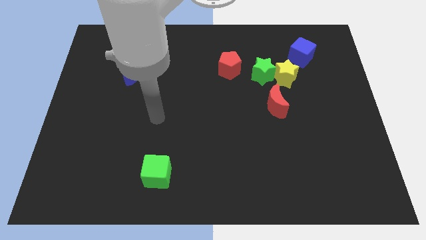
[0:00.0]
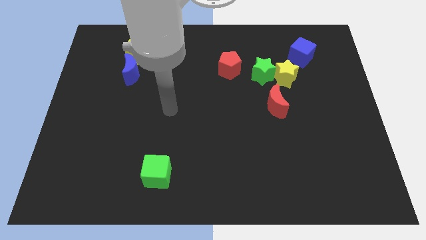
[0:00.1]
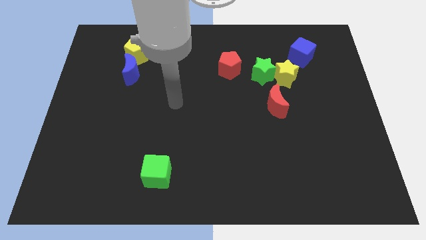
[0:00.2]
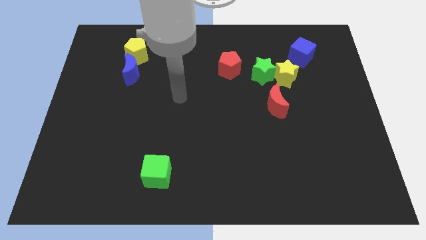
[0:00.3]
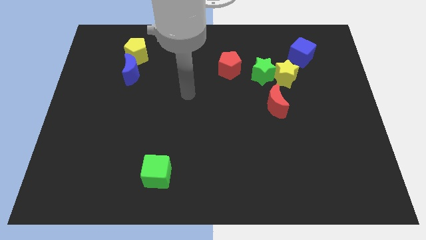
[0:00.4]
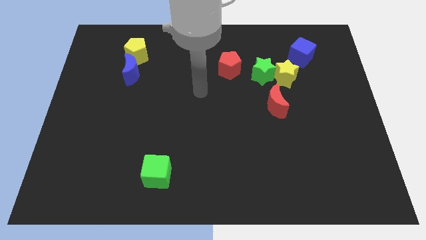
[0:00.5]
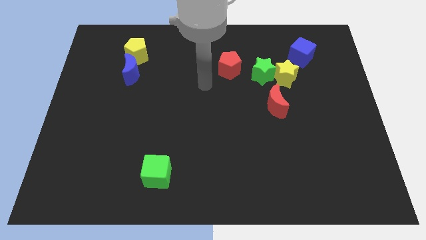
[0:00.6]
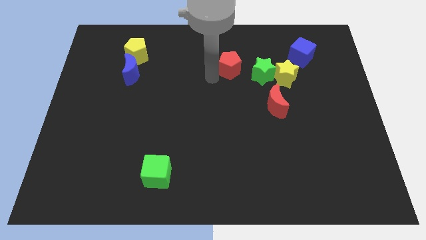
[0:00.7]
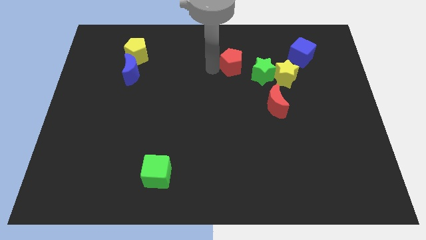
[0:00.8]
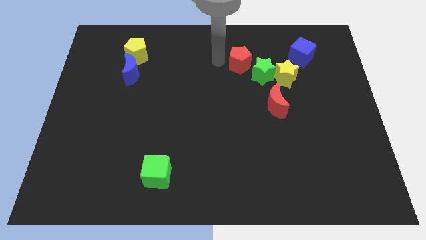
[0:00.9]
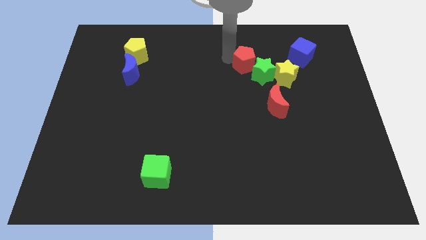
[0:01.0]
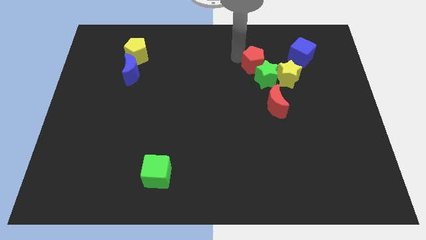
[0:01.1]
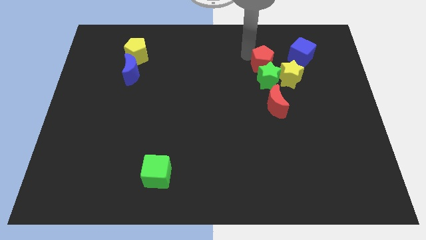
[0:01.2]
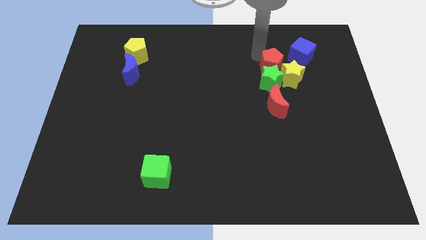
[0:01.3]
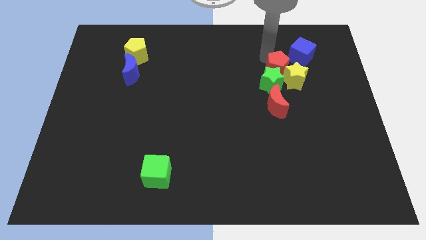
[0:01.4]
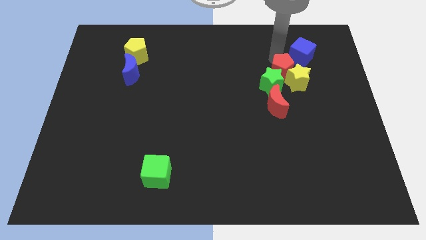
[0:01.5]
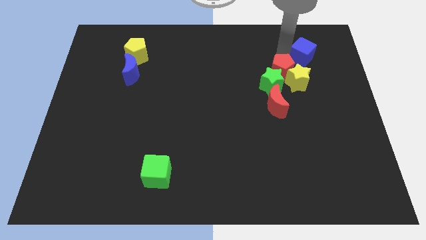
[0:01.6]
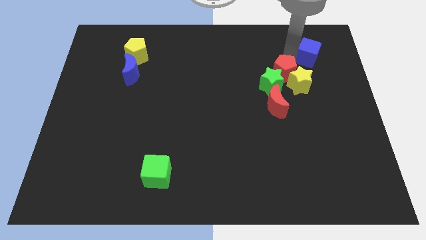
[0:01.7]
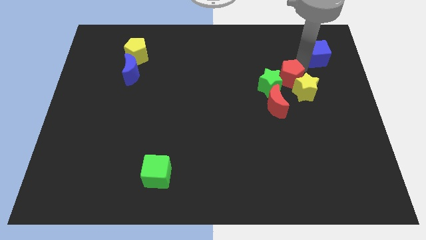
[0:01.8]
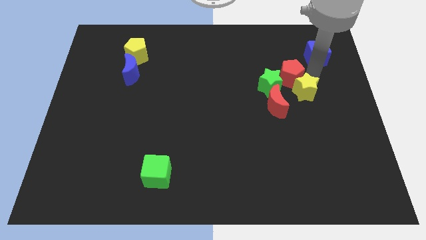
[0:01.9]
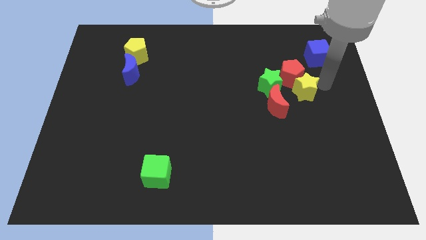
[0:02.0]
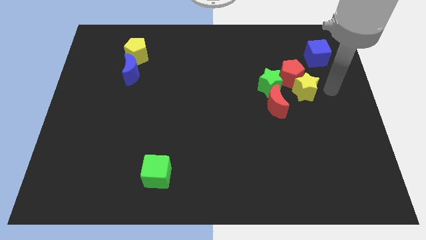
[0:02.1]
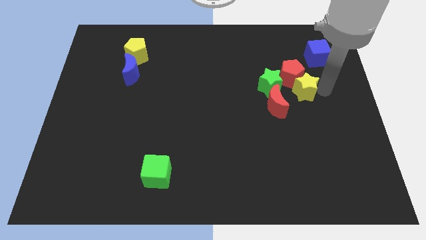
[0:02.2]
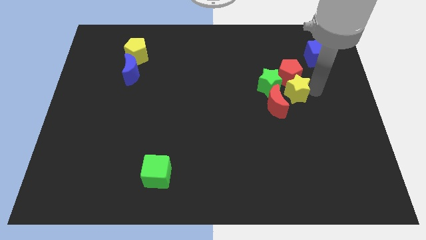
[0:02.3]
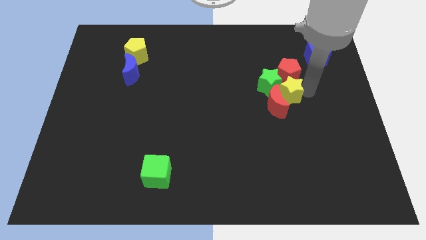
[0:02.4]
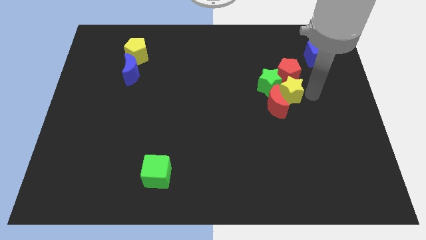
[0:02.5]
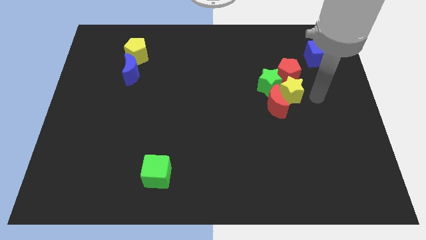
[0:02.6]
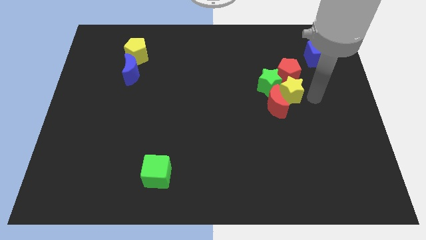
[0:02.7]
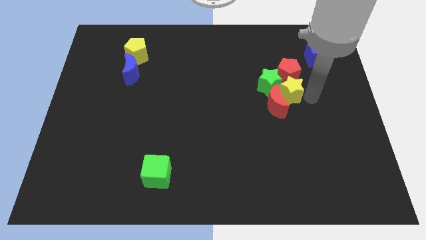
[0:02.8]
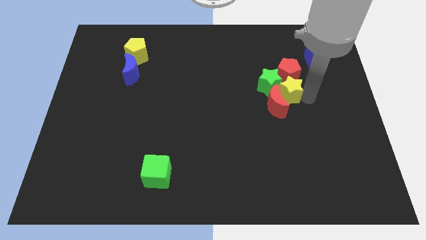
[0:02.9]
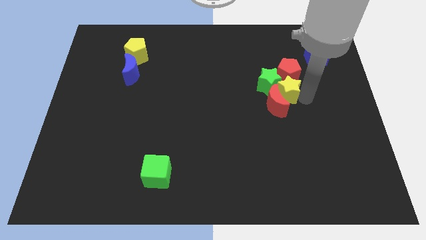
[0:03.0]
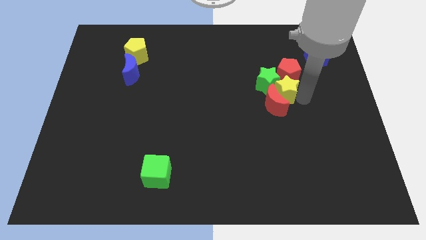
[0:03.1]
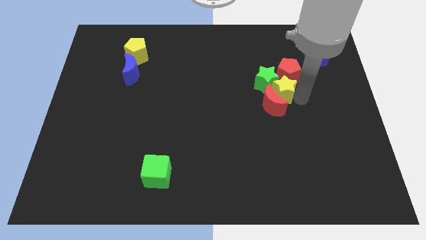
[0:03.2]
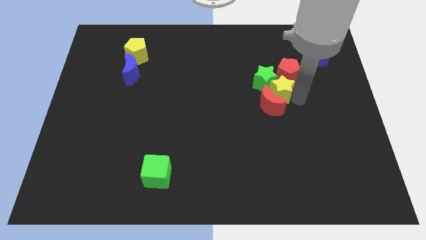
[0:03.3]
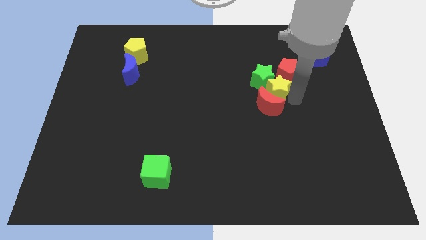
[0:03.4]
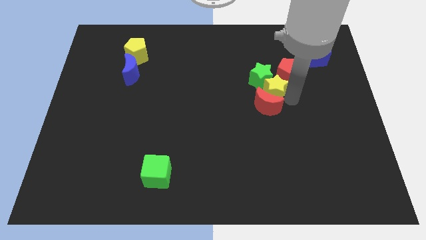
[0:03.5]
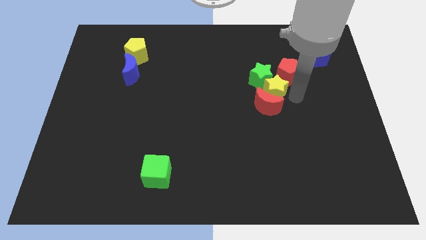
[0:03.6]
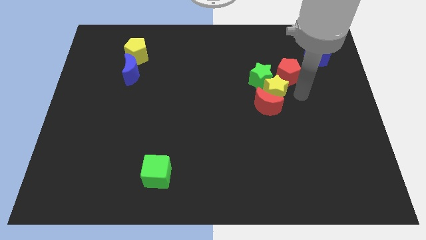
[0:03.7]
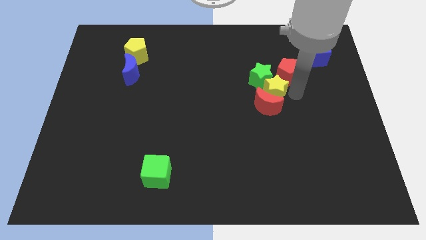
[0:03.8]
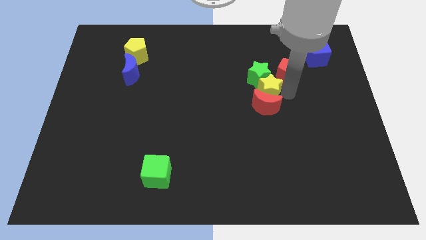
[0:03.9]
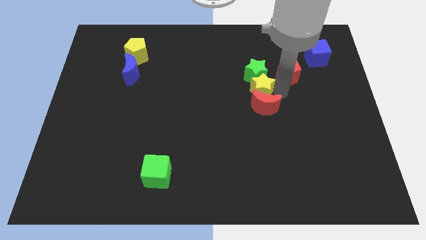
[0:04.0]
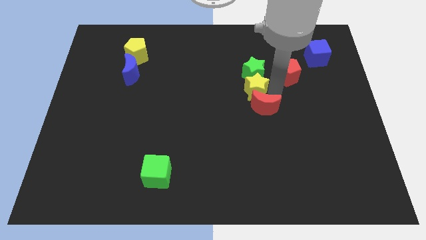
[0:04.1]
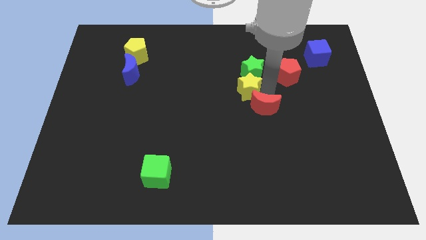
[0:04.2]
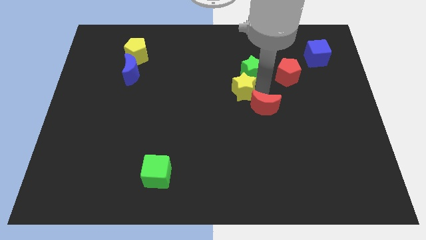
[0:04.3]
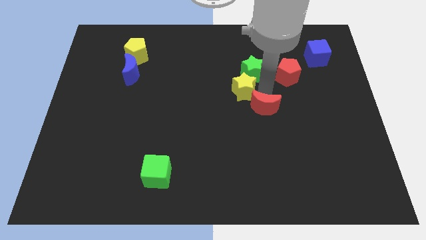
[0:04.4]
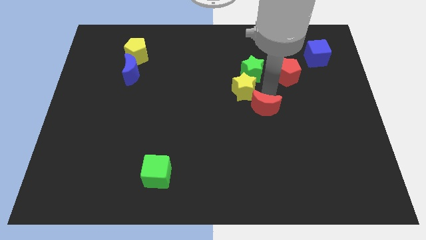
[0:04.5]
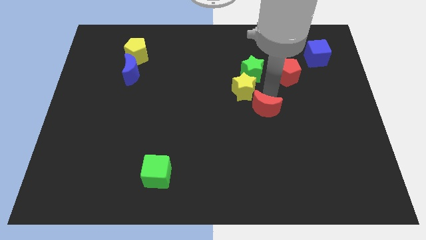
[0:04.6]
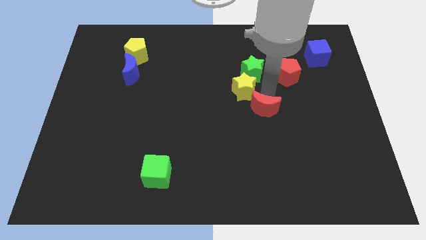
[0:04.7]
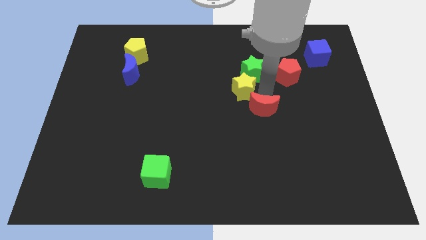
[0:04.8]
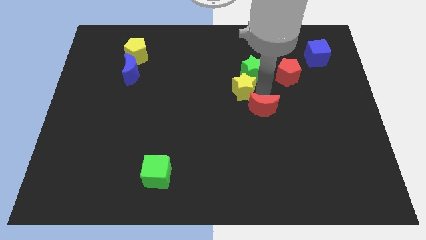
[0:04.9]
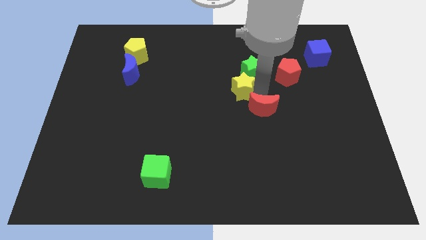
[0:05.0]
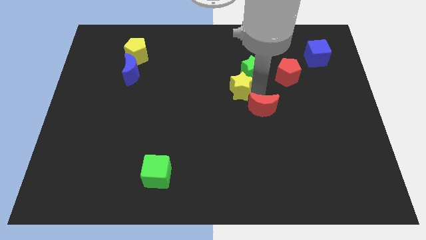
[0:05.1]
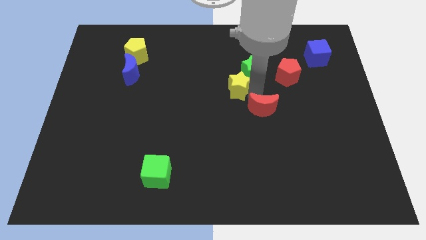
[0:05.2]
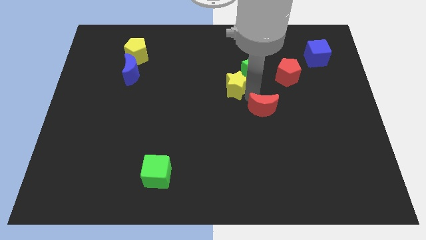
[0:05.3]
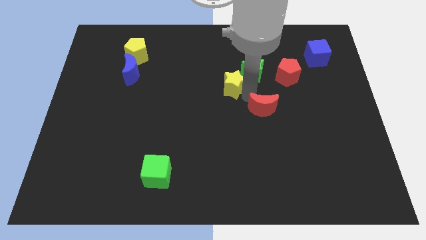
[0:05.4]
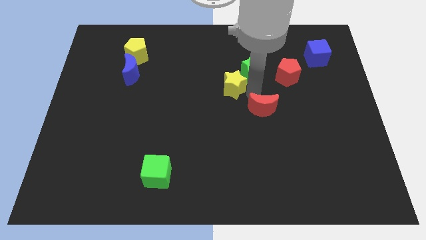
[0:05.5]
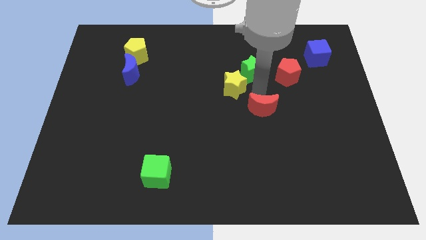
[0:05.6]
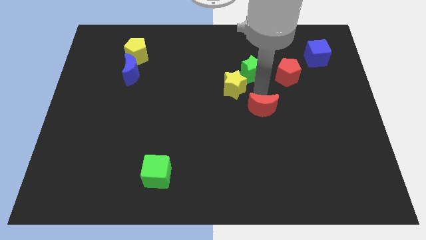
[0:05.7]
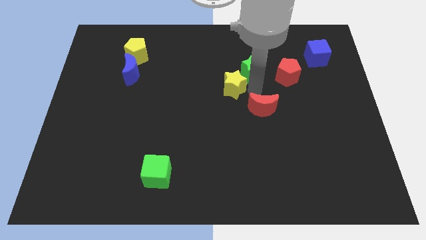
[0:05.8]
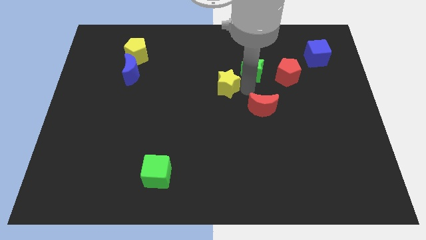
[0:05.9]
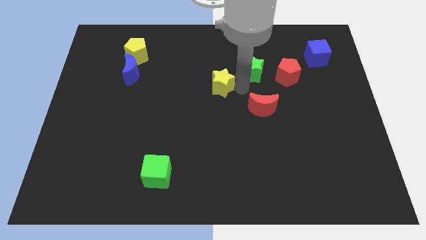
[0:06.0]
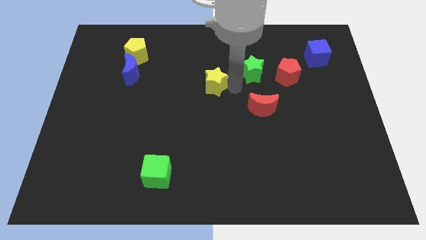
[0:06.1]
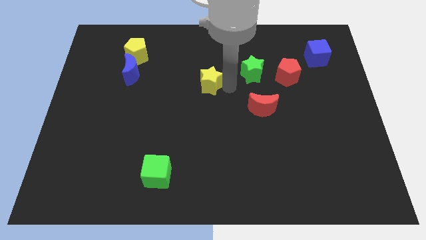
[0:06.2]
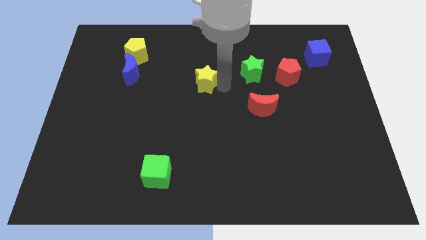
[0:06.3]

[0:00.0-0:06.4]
slide the yellow star left

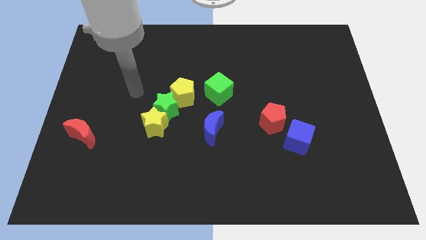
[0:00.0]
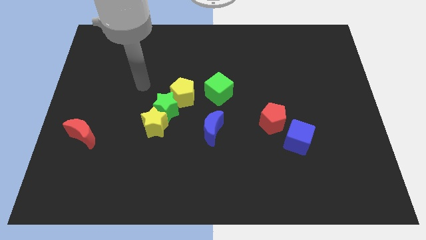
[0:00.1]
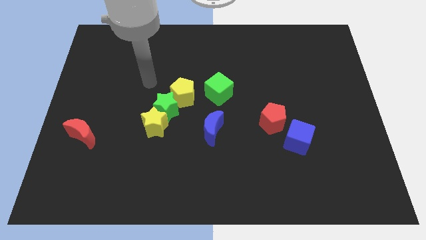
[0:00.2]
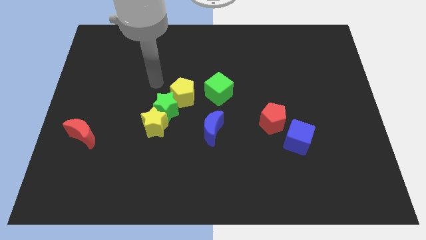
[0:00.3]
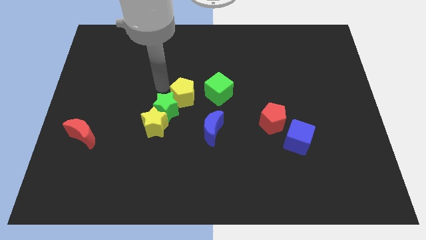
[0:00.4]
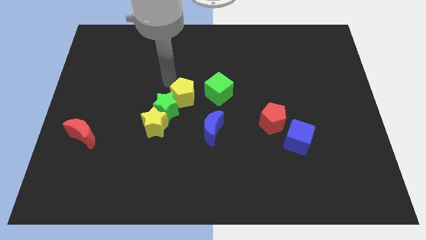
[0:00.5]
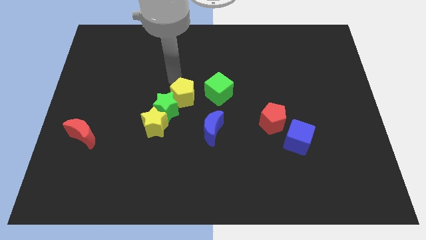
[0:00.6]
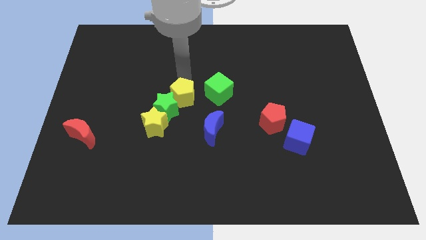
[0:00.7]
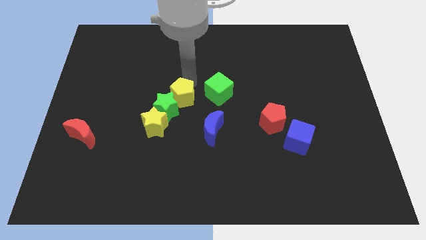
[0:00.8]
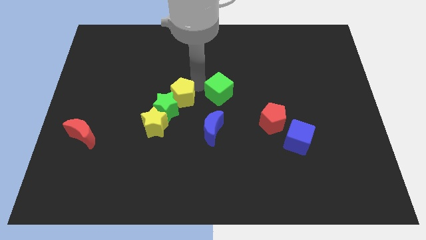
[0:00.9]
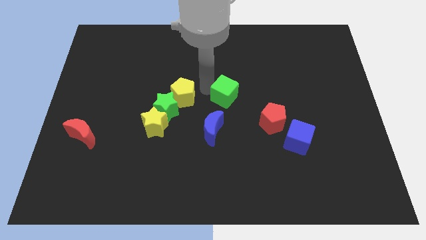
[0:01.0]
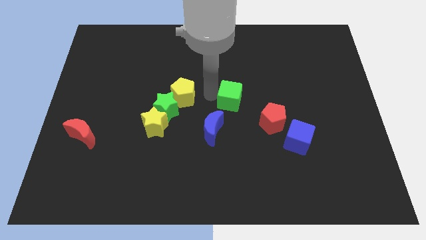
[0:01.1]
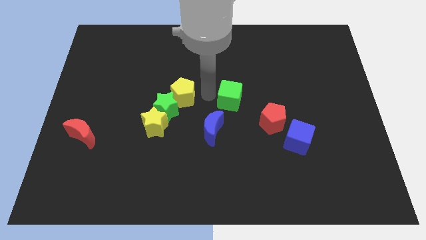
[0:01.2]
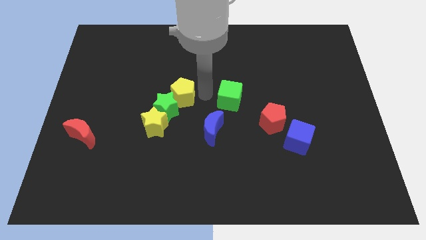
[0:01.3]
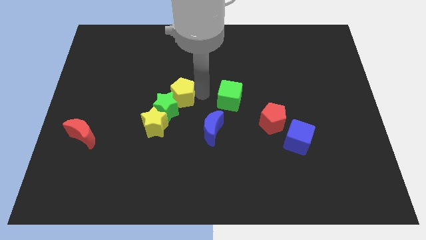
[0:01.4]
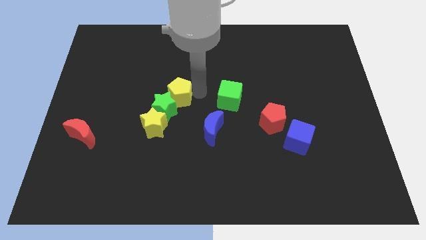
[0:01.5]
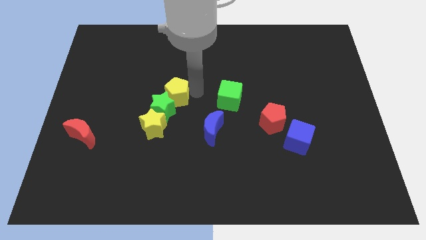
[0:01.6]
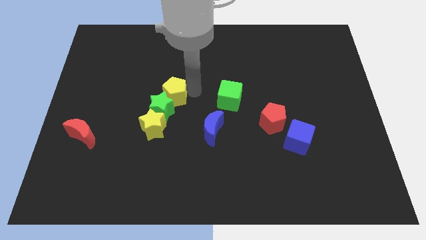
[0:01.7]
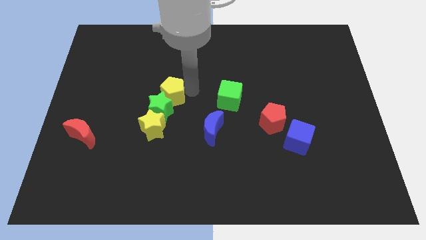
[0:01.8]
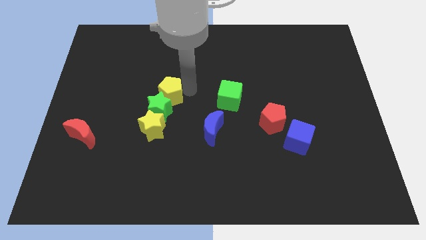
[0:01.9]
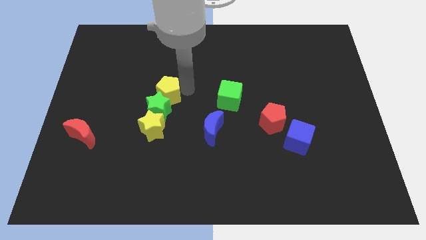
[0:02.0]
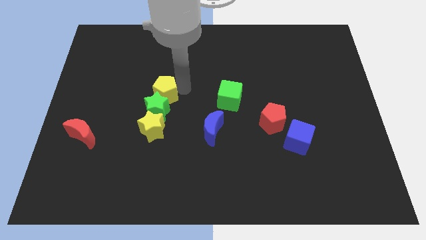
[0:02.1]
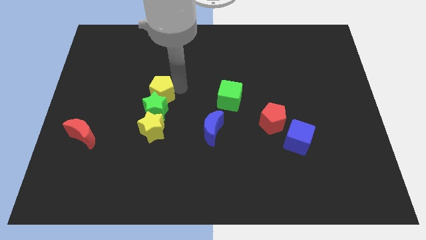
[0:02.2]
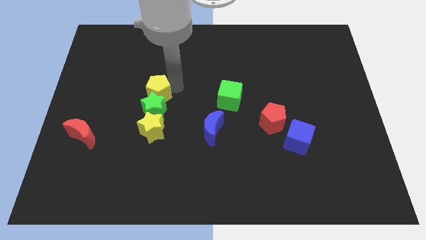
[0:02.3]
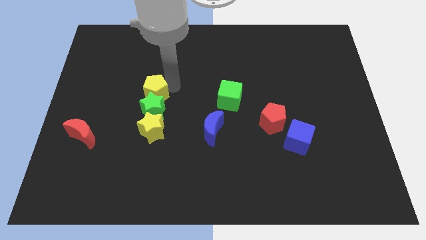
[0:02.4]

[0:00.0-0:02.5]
move the yellow pentagon left somewhat
